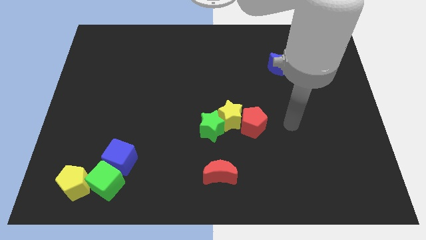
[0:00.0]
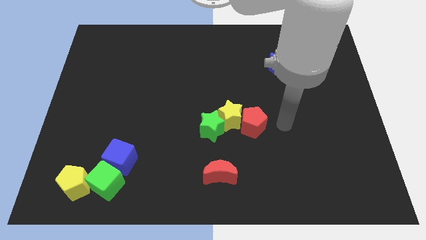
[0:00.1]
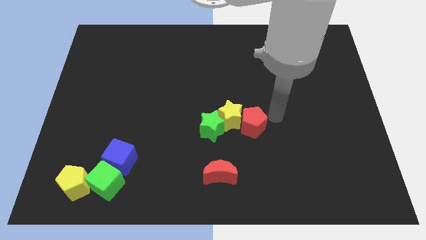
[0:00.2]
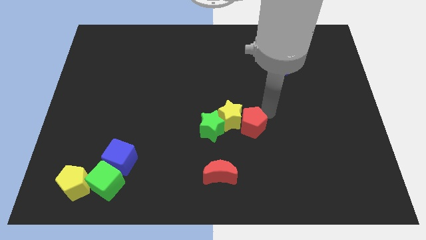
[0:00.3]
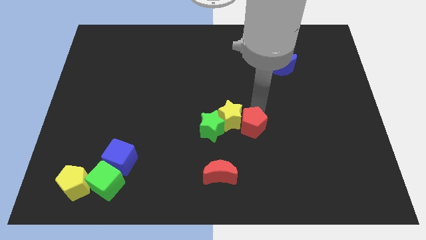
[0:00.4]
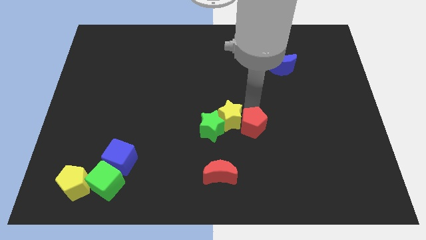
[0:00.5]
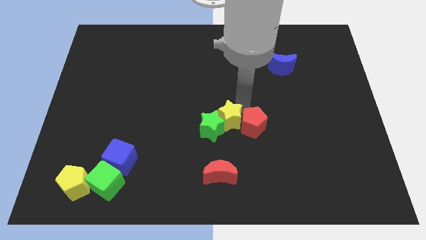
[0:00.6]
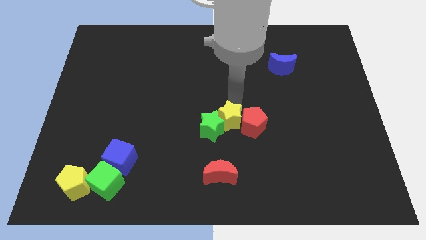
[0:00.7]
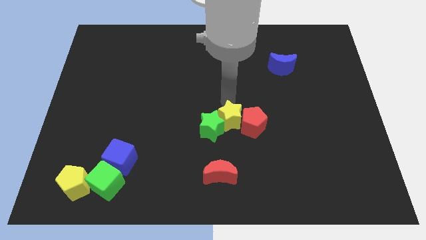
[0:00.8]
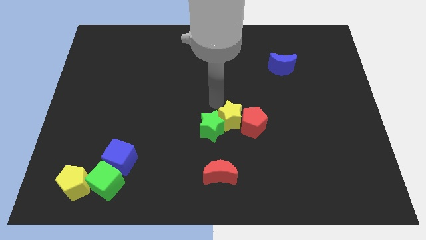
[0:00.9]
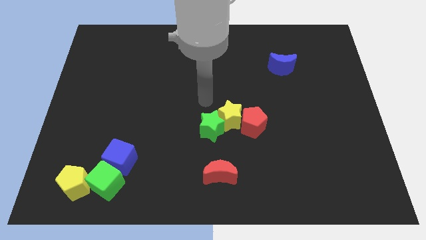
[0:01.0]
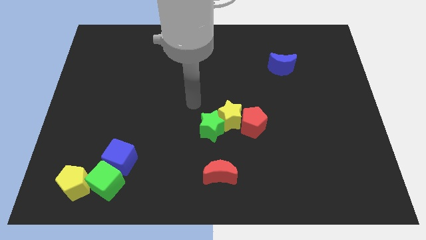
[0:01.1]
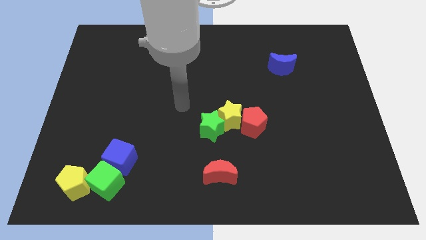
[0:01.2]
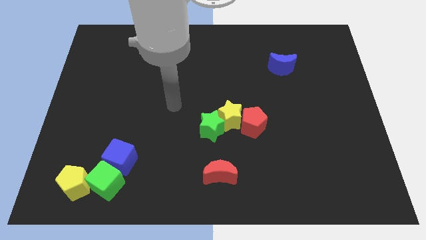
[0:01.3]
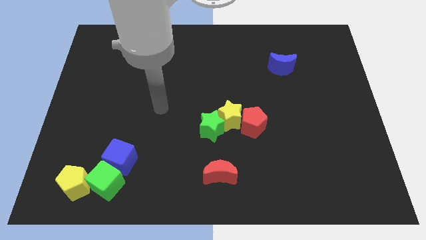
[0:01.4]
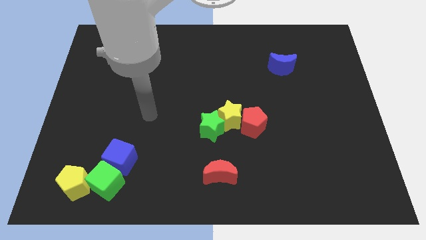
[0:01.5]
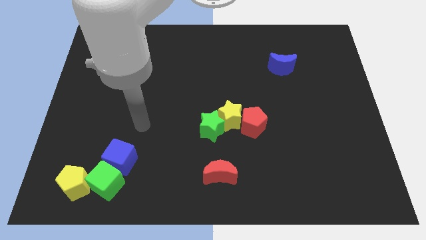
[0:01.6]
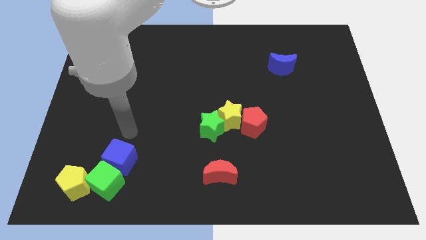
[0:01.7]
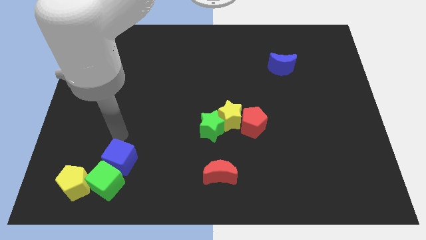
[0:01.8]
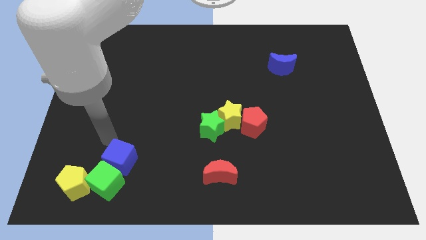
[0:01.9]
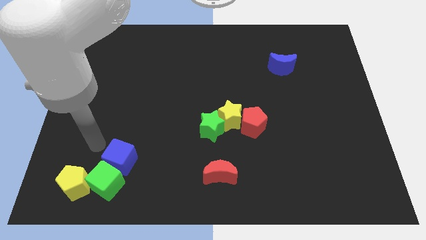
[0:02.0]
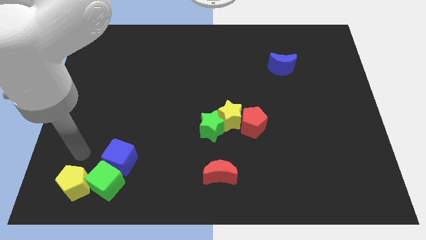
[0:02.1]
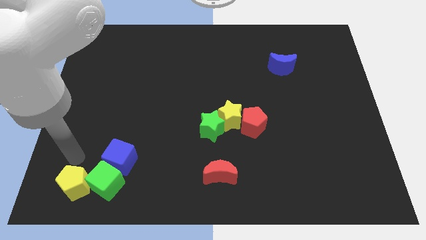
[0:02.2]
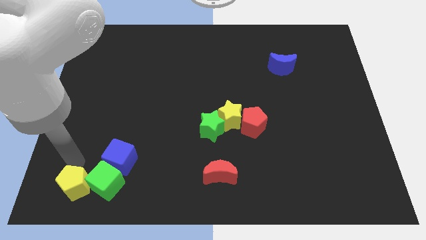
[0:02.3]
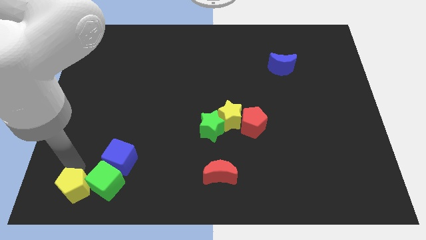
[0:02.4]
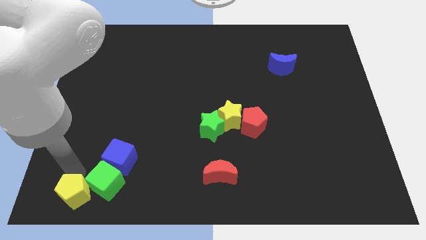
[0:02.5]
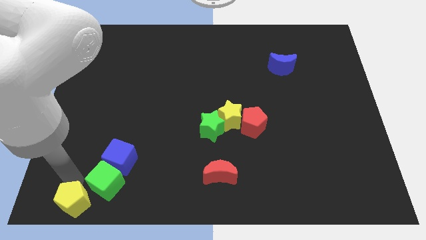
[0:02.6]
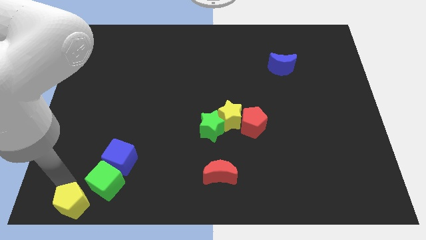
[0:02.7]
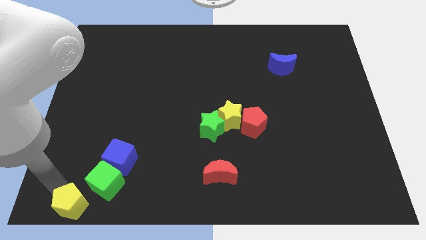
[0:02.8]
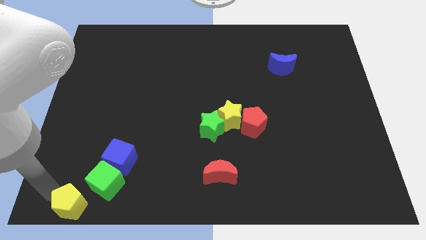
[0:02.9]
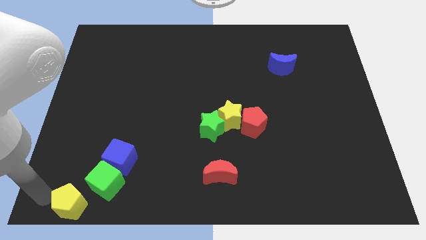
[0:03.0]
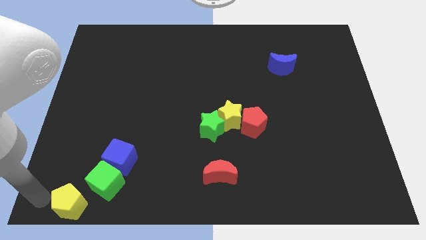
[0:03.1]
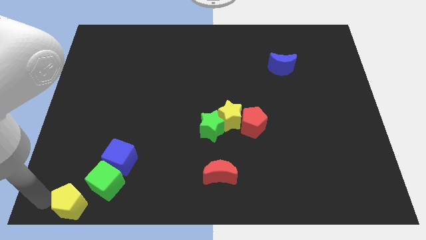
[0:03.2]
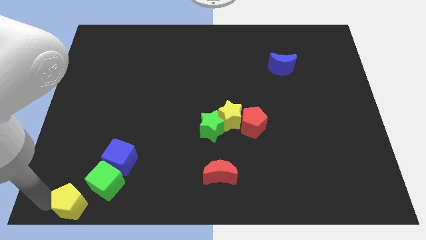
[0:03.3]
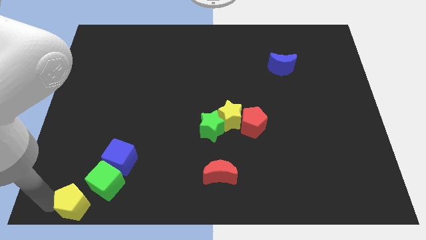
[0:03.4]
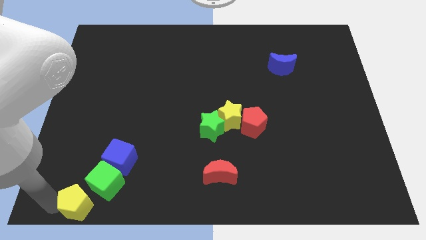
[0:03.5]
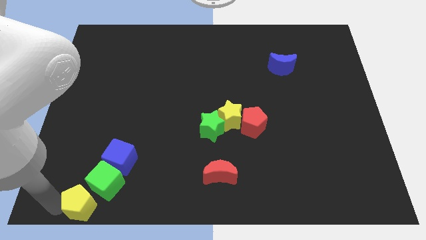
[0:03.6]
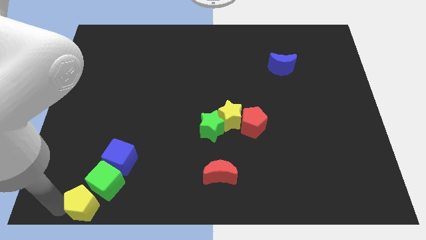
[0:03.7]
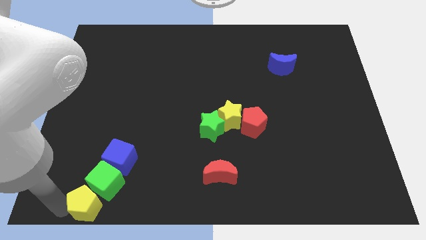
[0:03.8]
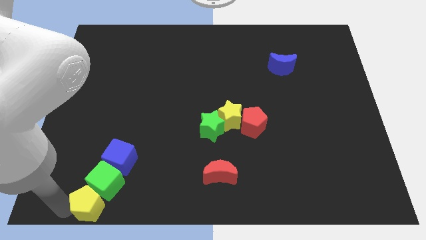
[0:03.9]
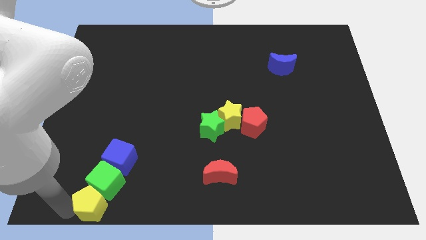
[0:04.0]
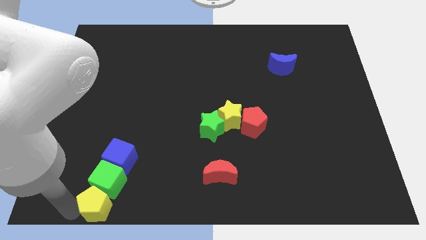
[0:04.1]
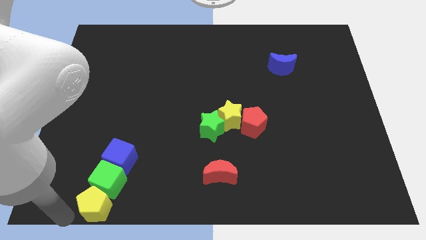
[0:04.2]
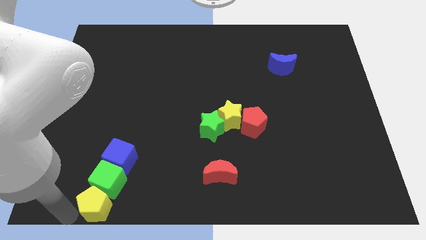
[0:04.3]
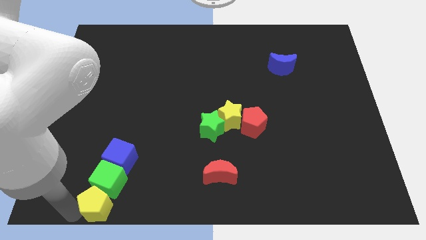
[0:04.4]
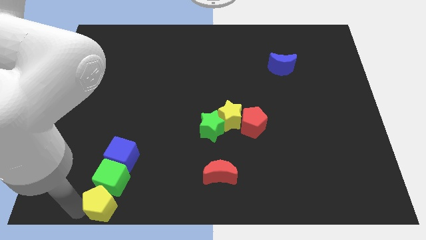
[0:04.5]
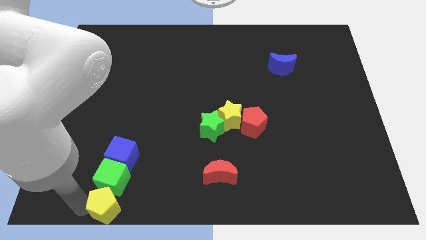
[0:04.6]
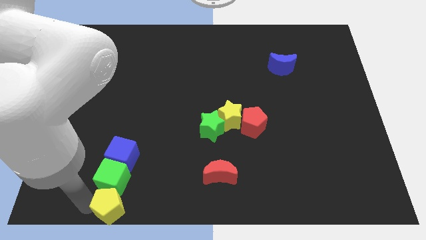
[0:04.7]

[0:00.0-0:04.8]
slightly move the yellow pentagon right

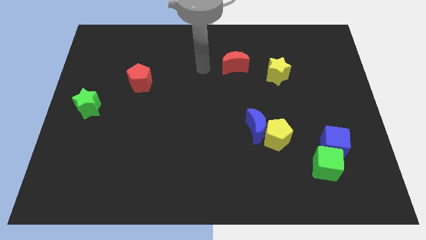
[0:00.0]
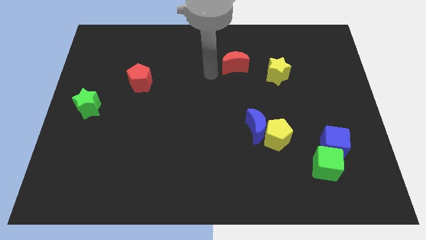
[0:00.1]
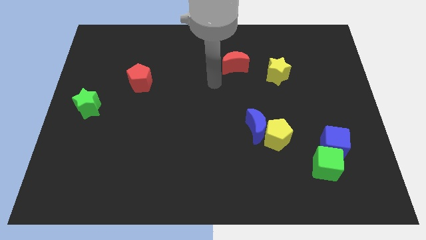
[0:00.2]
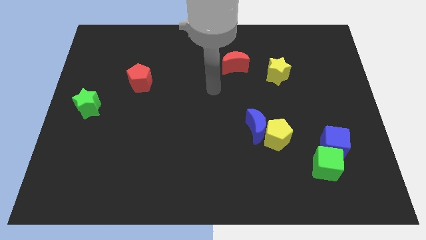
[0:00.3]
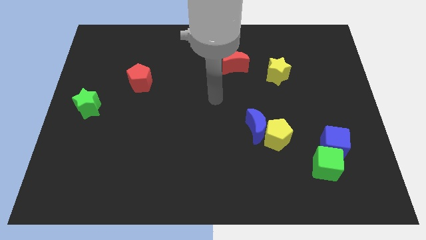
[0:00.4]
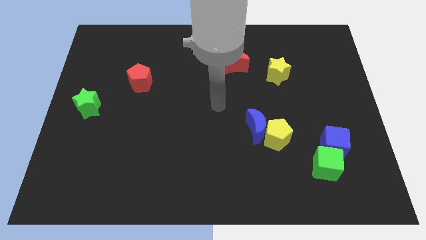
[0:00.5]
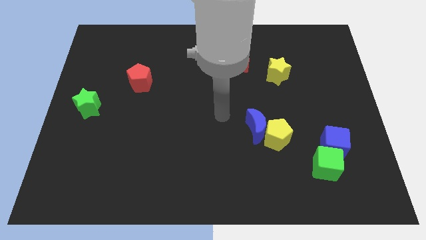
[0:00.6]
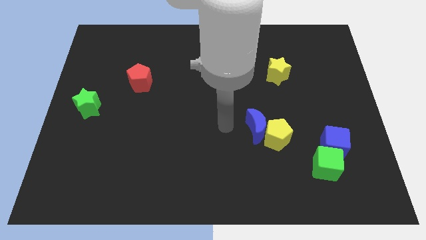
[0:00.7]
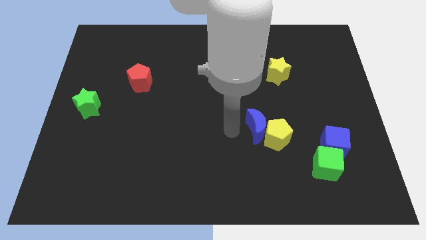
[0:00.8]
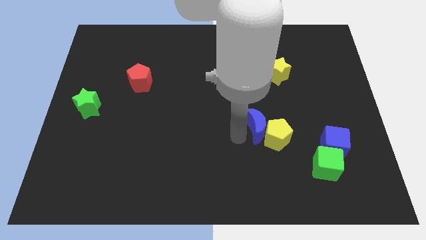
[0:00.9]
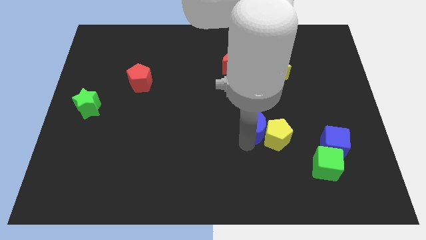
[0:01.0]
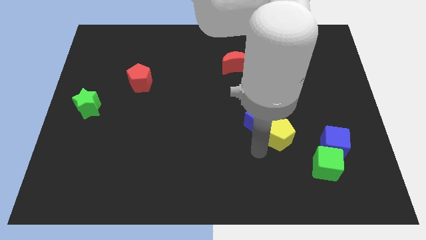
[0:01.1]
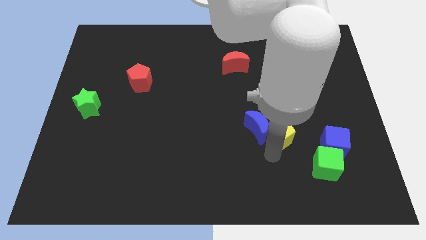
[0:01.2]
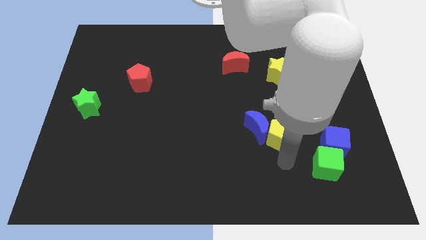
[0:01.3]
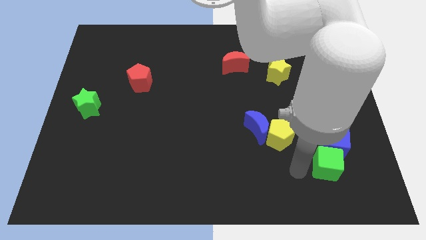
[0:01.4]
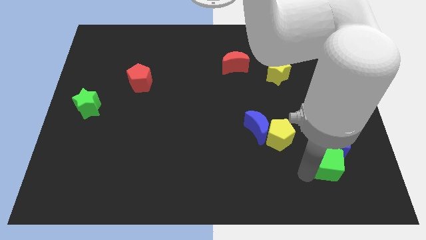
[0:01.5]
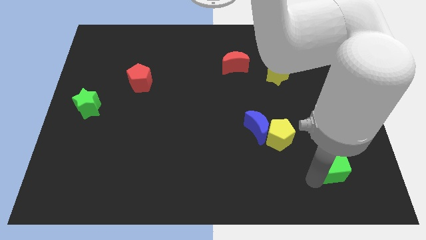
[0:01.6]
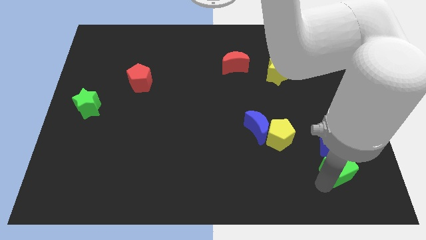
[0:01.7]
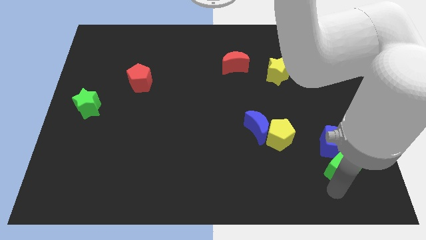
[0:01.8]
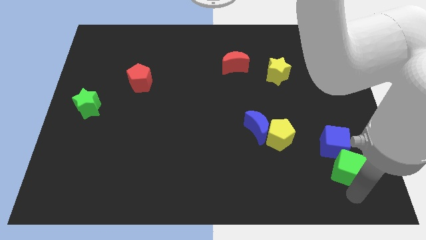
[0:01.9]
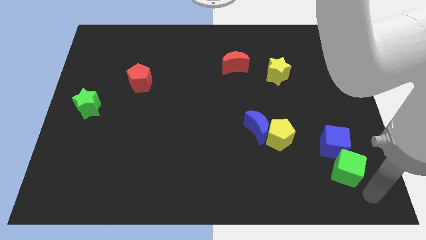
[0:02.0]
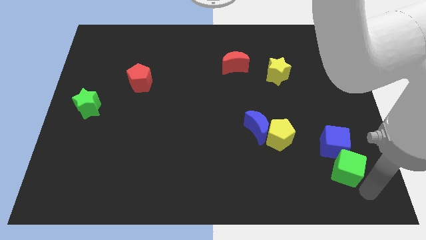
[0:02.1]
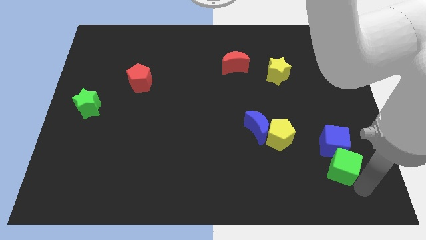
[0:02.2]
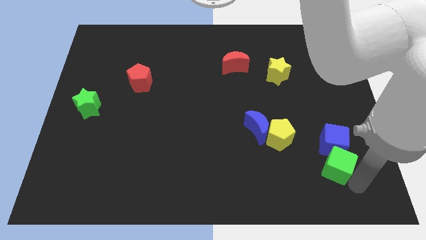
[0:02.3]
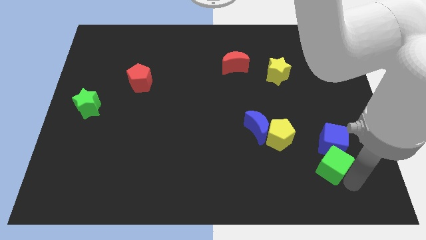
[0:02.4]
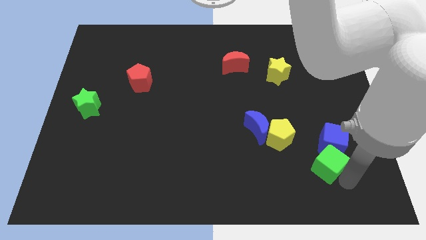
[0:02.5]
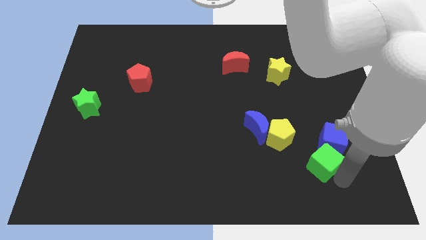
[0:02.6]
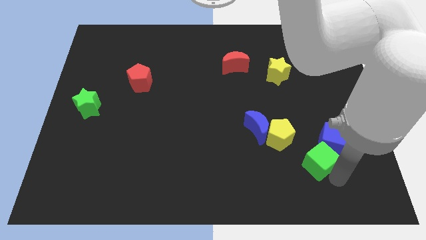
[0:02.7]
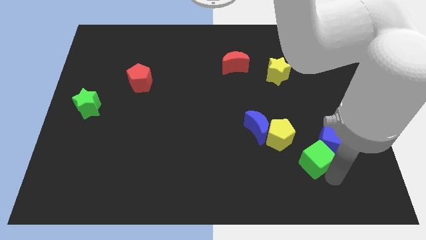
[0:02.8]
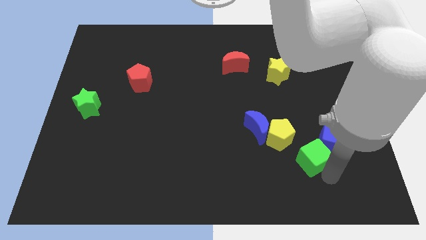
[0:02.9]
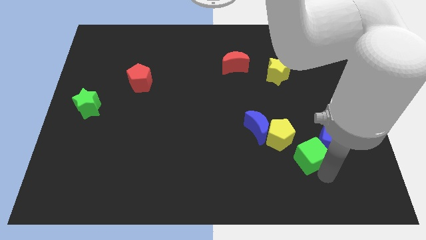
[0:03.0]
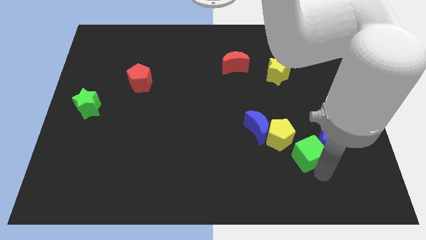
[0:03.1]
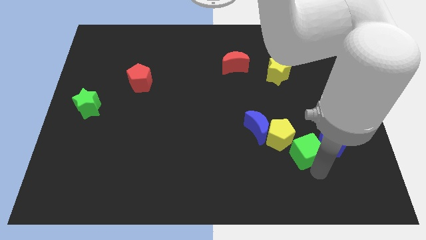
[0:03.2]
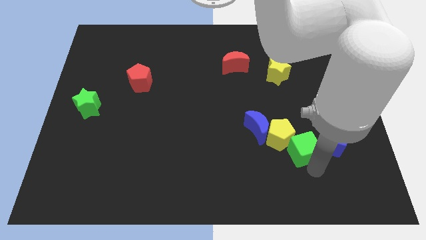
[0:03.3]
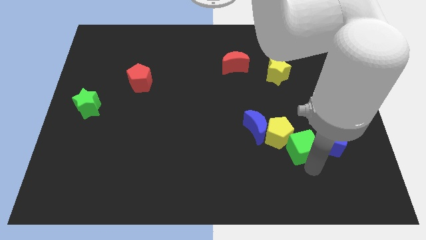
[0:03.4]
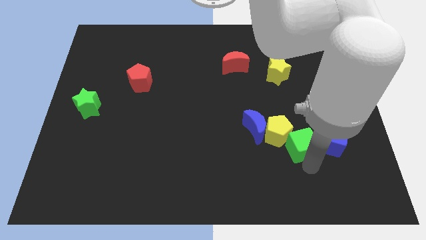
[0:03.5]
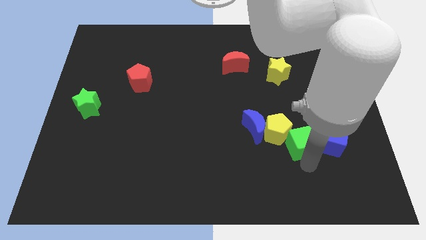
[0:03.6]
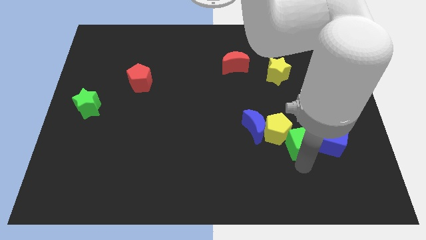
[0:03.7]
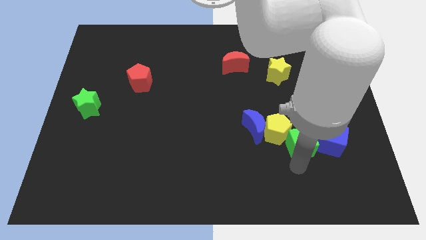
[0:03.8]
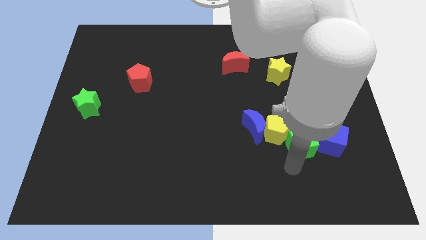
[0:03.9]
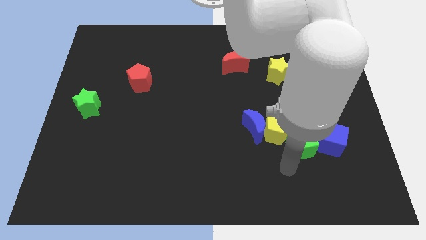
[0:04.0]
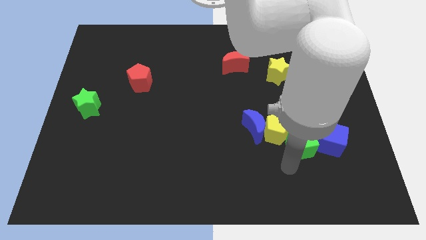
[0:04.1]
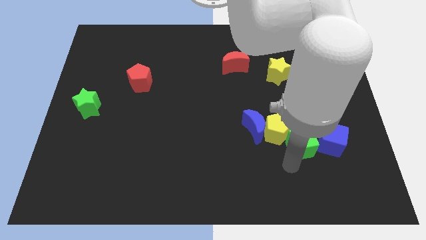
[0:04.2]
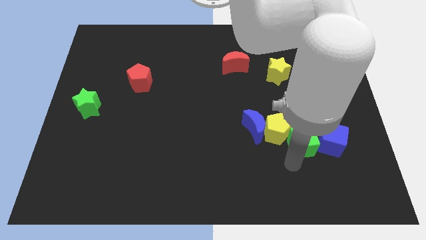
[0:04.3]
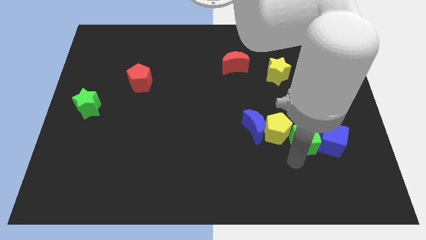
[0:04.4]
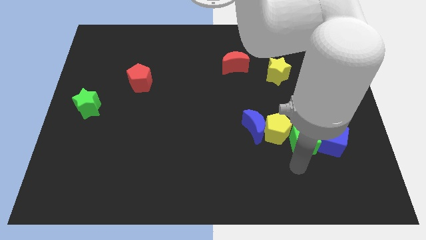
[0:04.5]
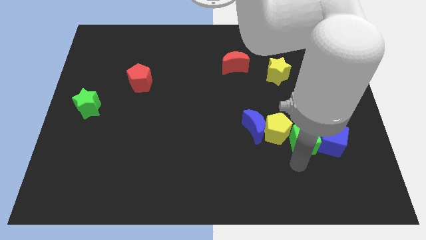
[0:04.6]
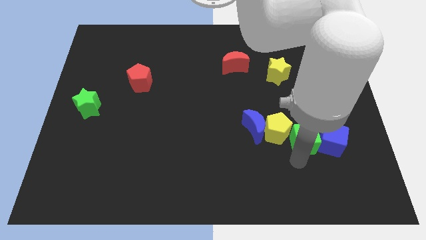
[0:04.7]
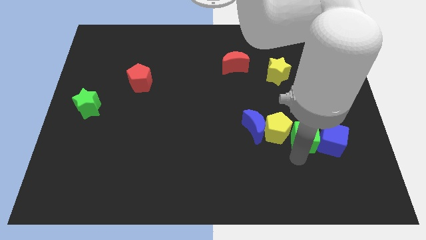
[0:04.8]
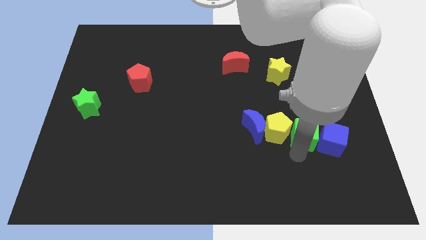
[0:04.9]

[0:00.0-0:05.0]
slide the green cube up a little bit
